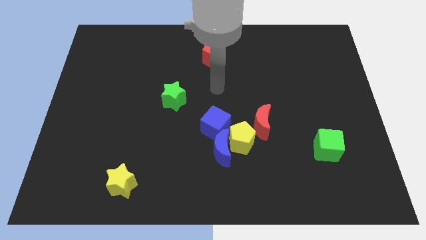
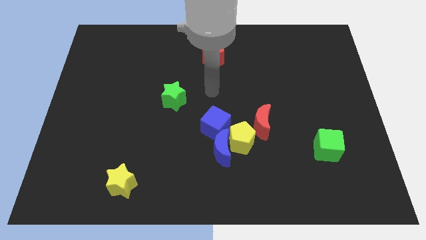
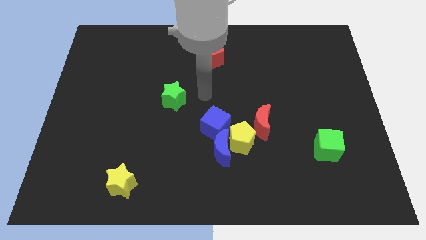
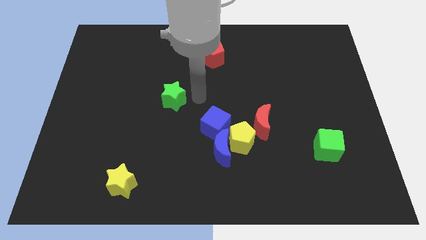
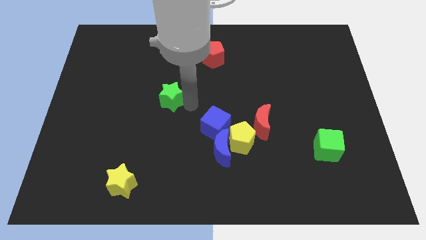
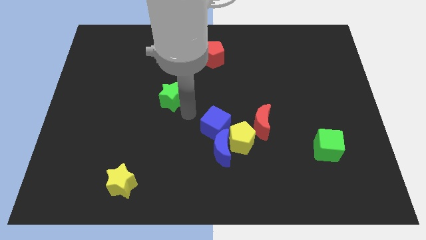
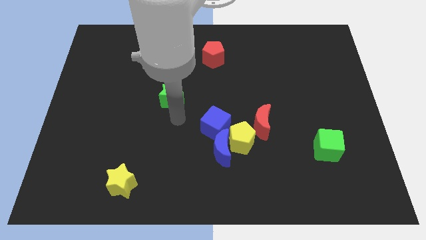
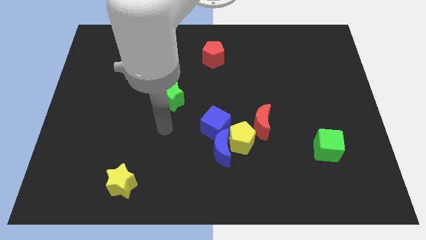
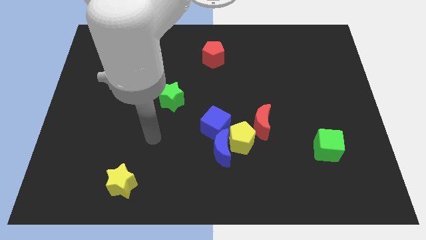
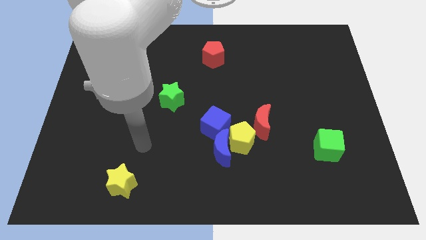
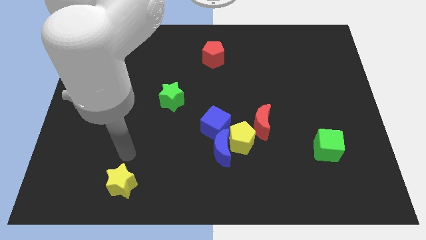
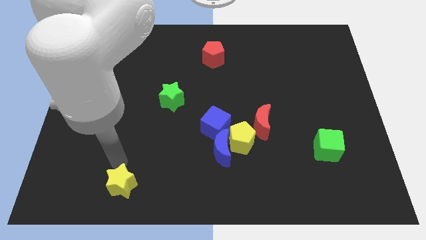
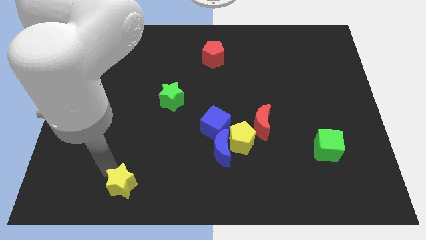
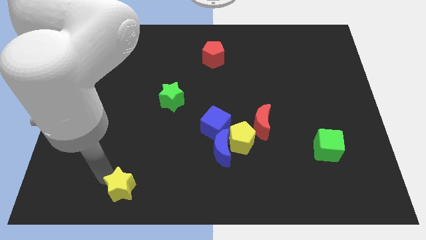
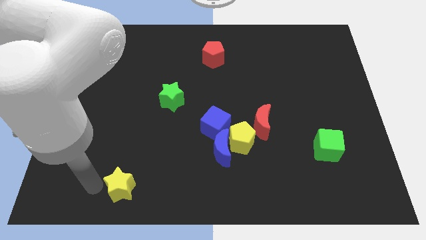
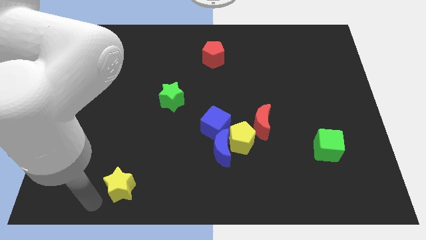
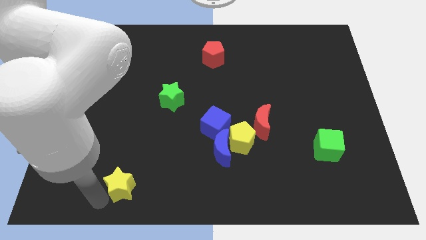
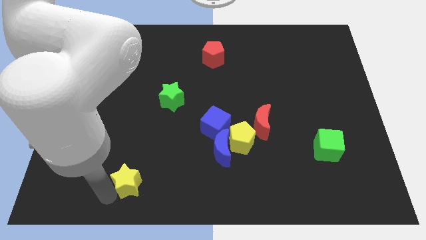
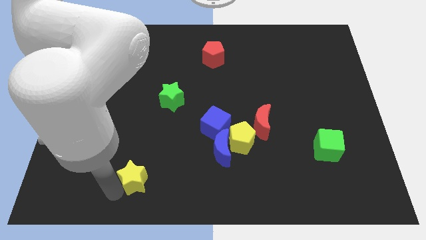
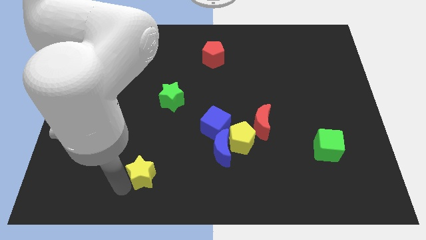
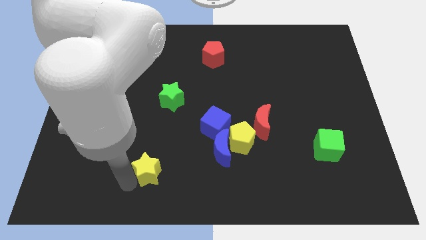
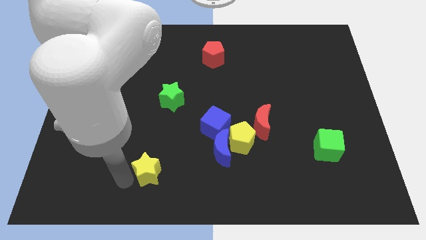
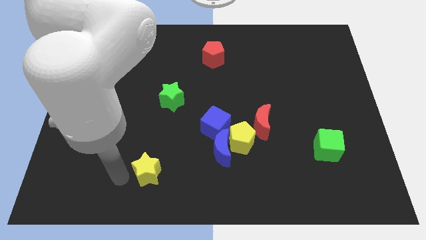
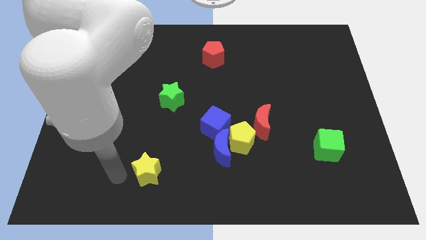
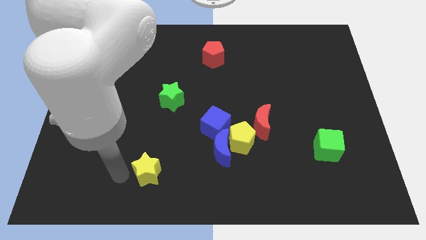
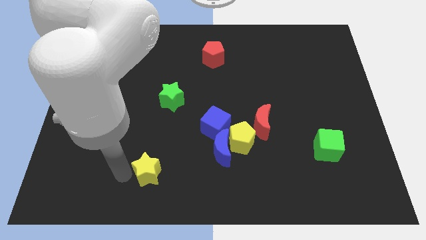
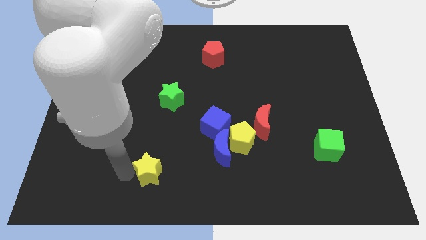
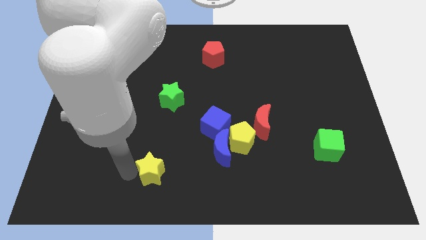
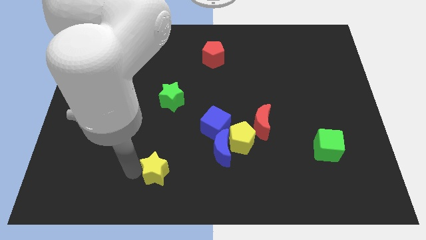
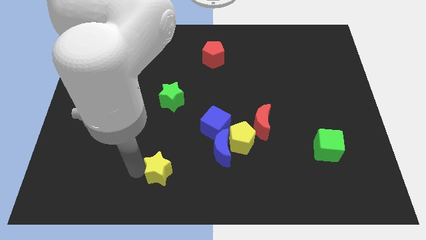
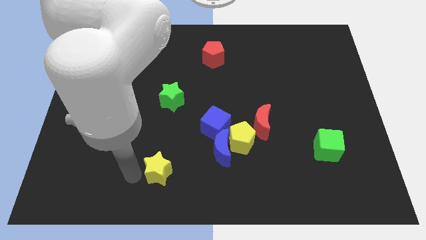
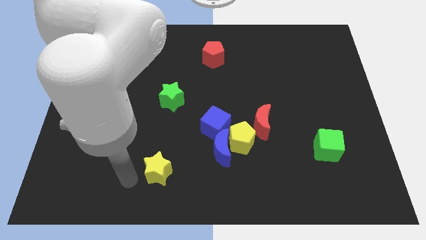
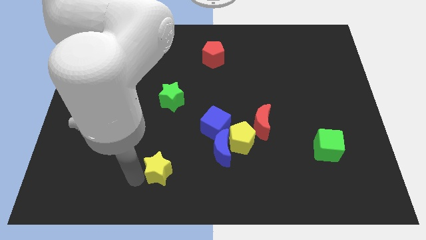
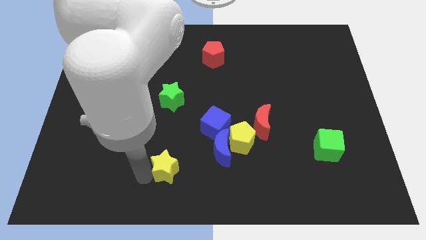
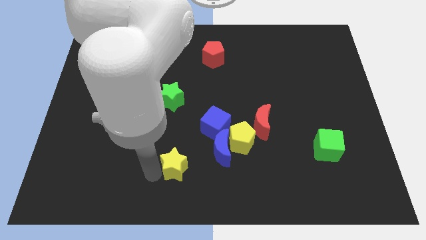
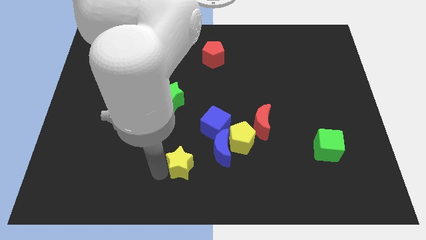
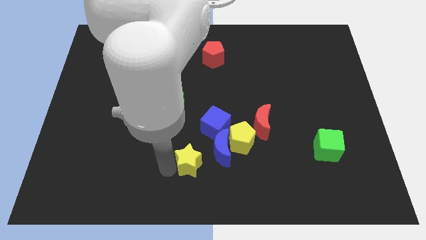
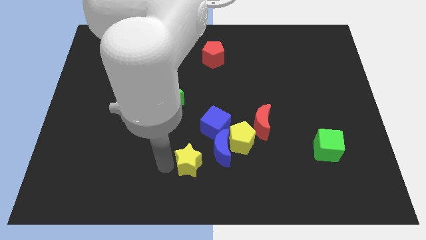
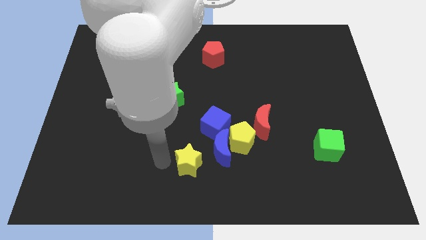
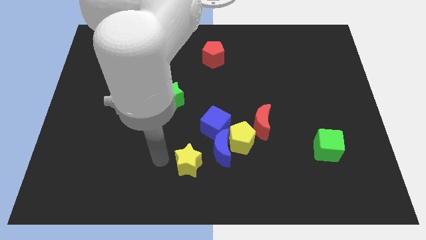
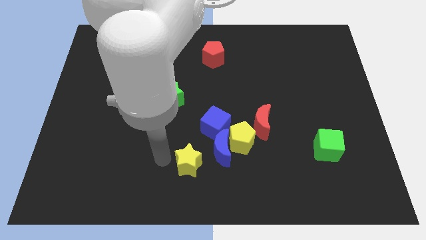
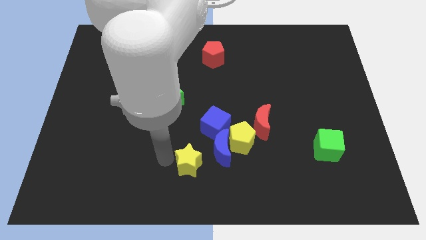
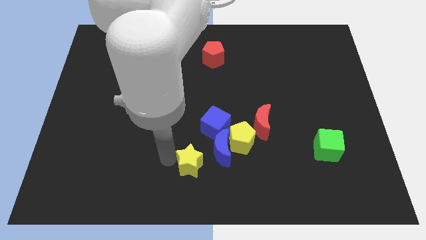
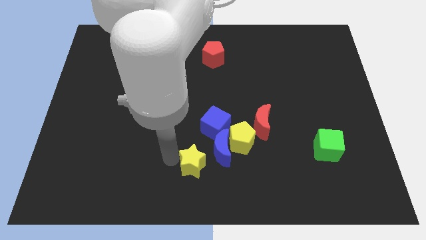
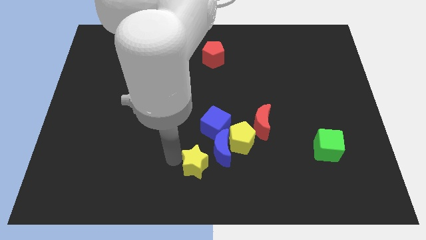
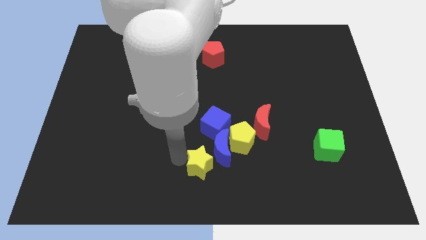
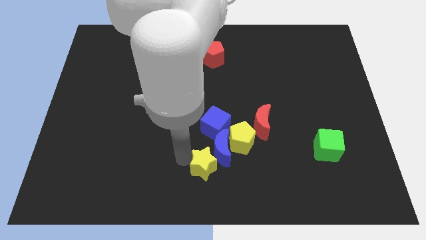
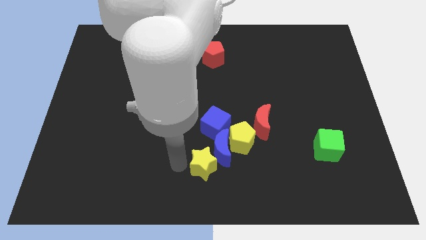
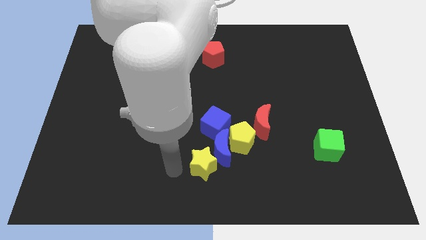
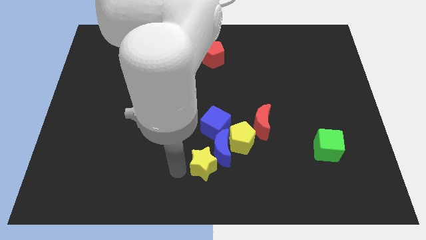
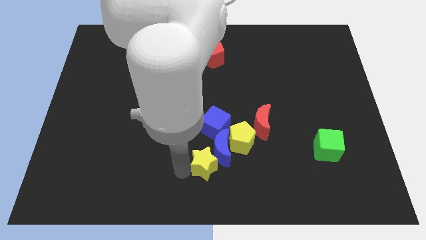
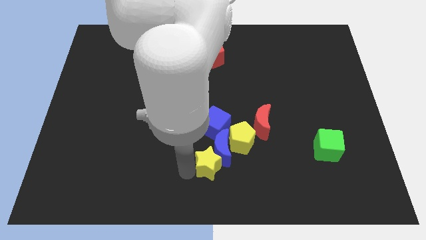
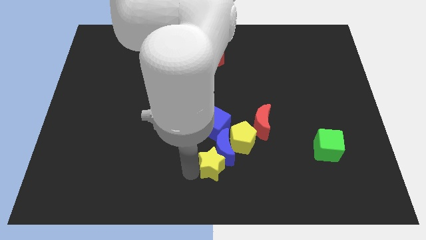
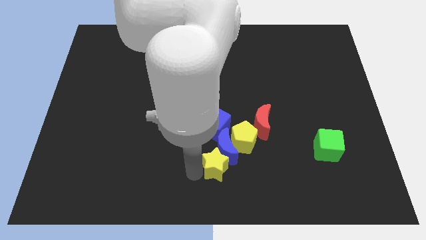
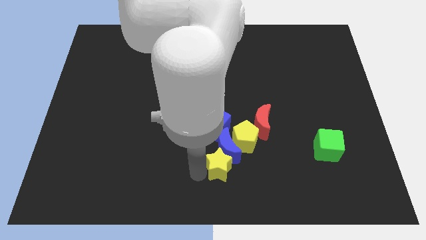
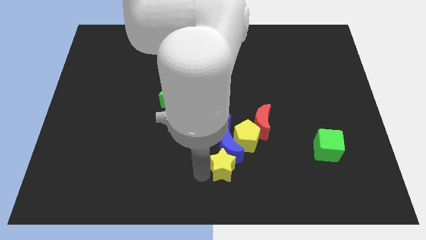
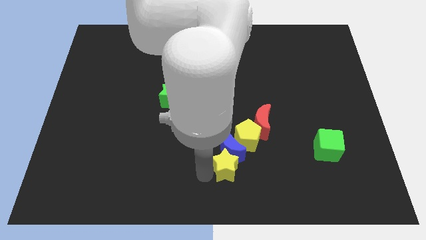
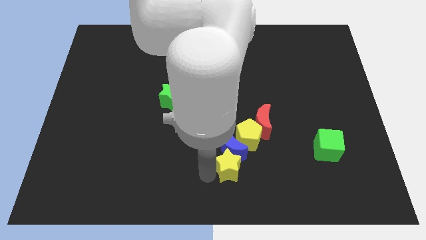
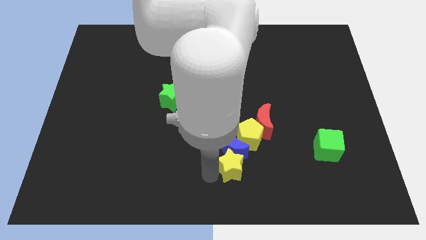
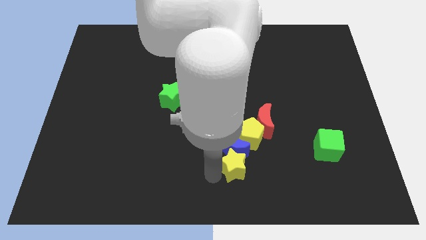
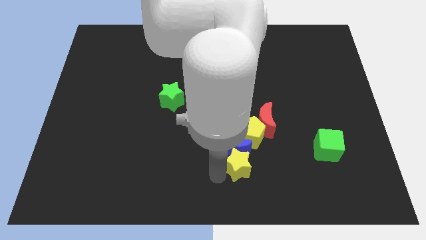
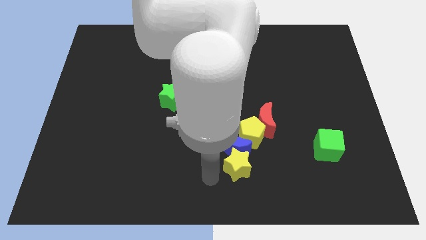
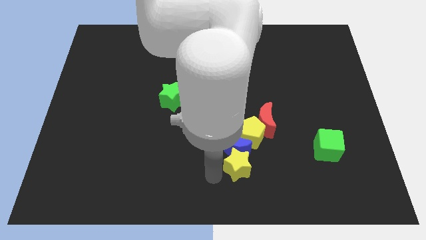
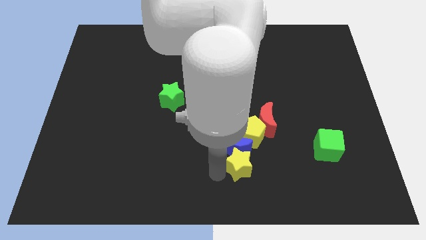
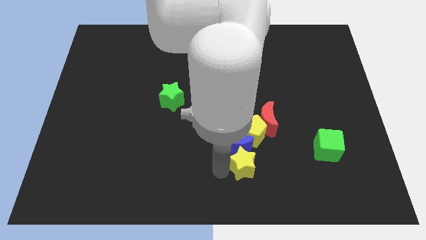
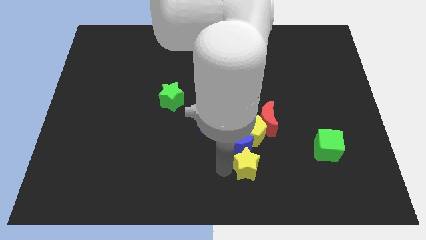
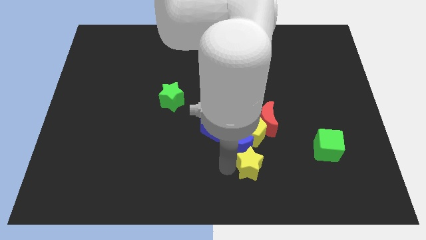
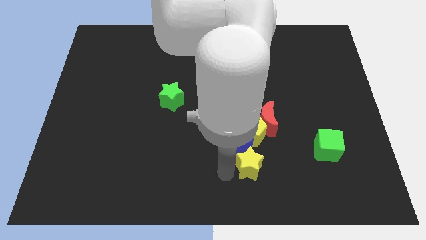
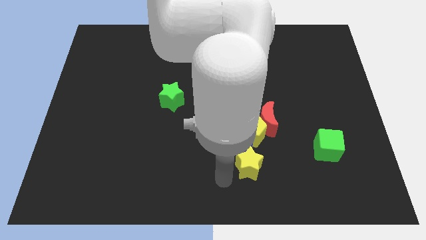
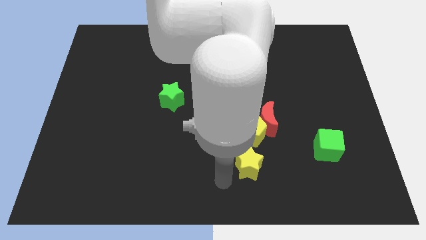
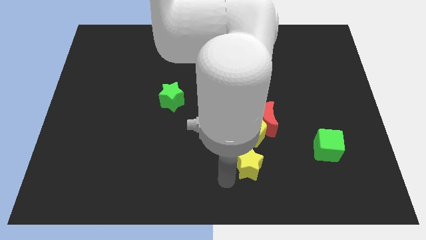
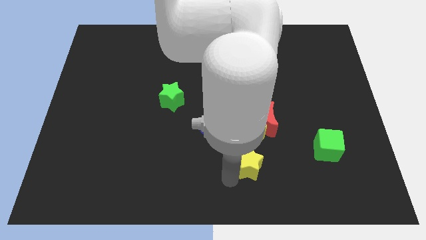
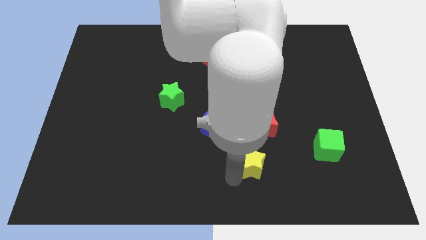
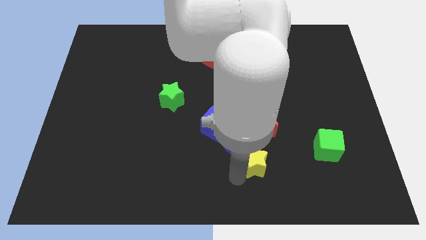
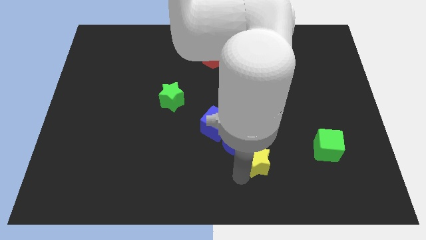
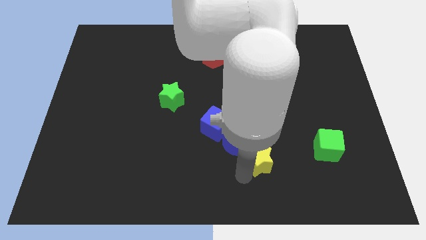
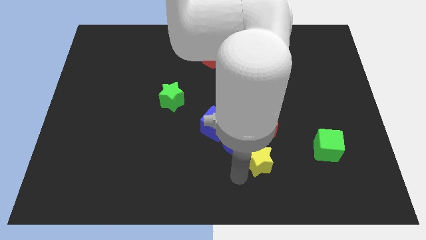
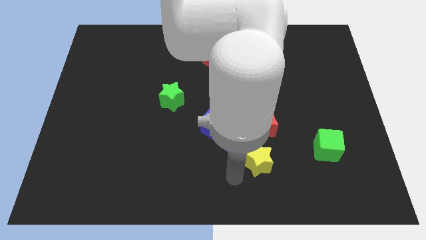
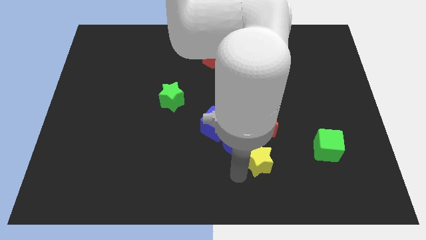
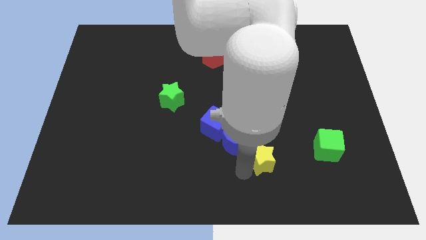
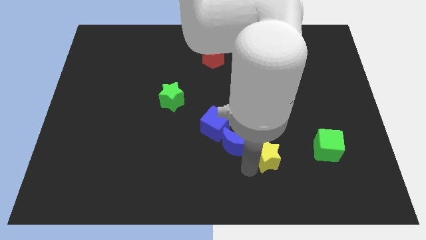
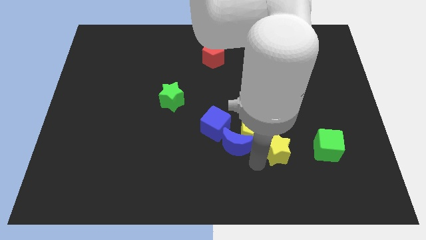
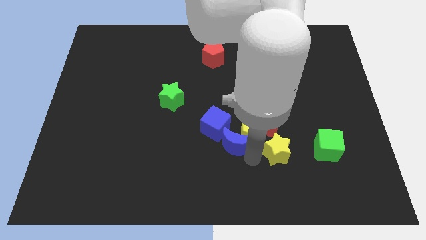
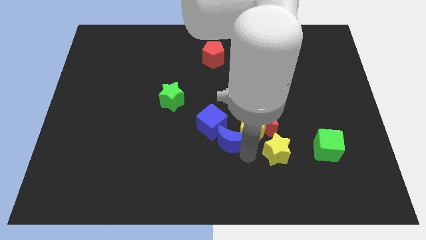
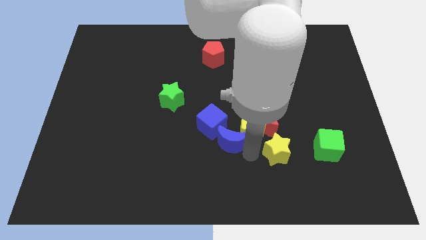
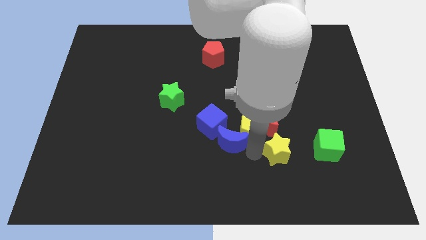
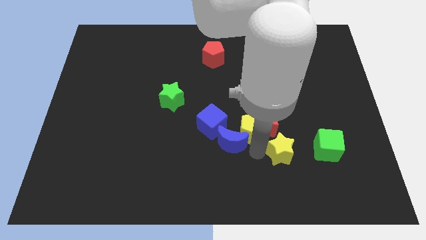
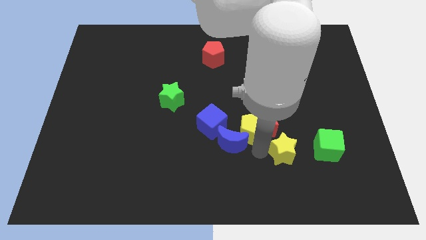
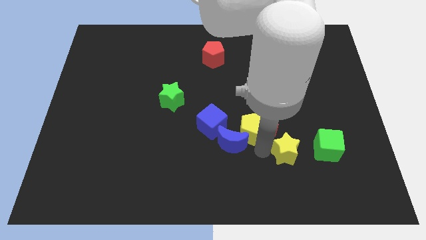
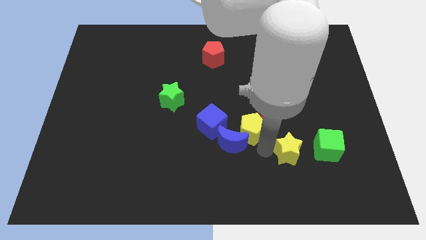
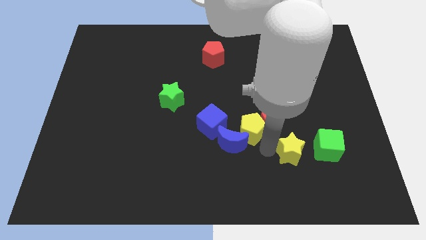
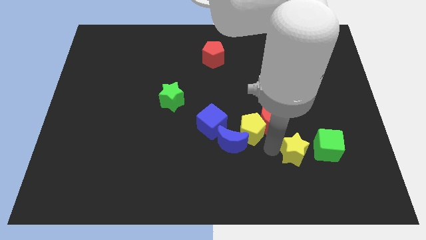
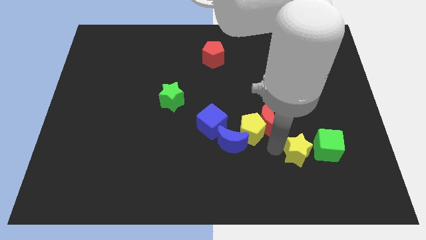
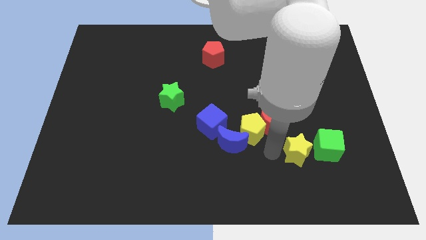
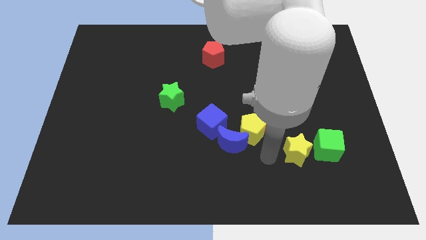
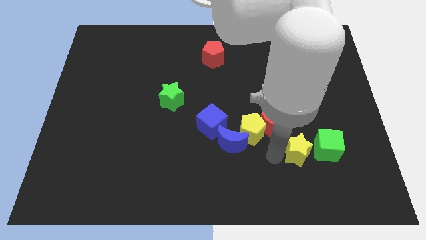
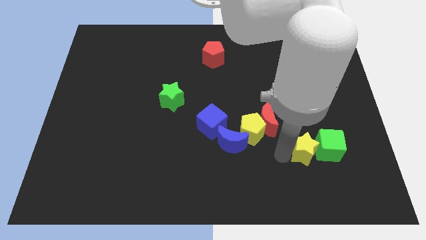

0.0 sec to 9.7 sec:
move the yellow star to the green cube
